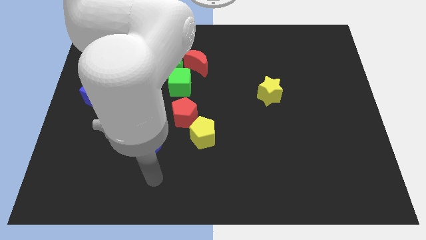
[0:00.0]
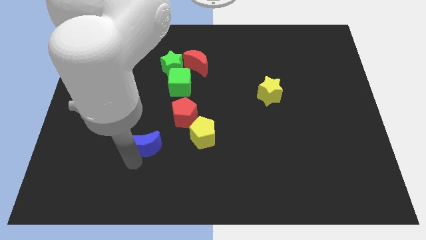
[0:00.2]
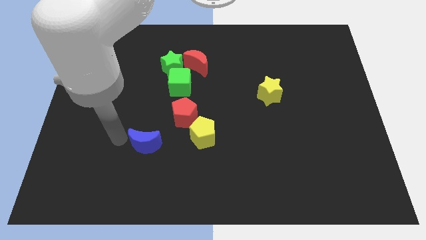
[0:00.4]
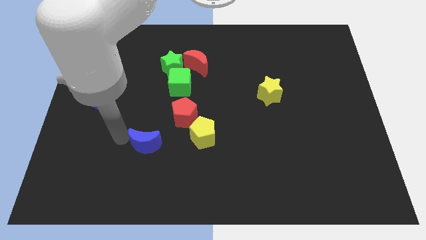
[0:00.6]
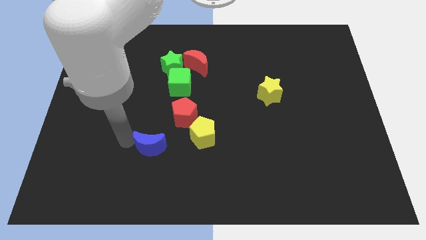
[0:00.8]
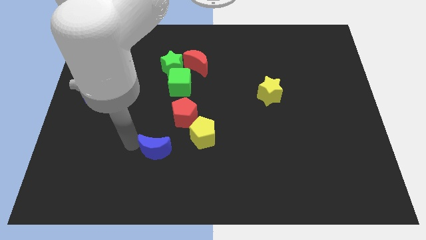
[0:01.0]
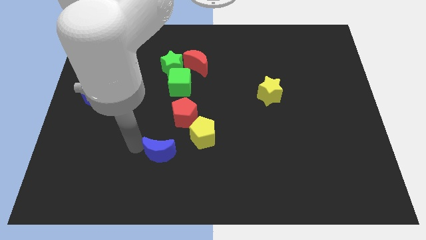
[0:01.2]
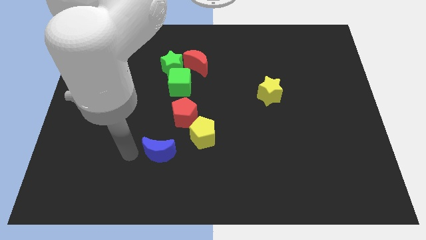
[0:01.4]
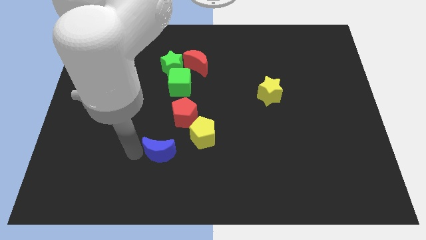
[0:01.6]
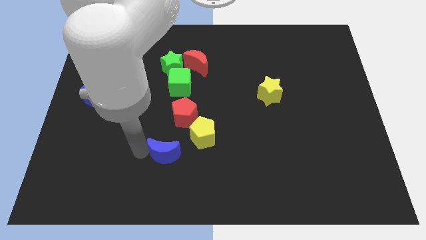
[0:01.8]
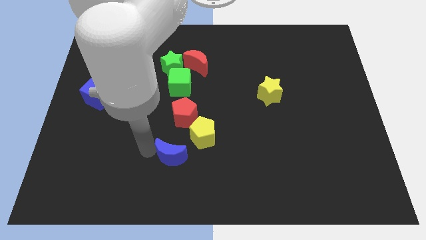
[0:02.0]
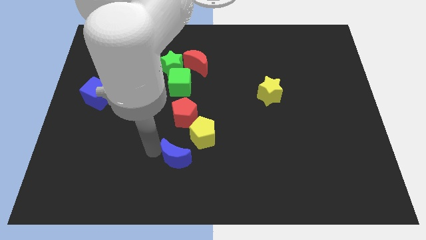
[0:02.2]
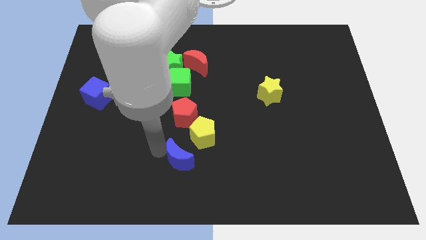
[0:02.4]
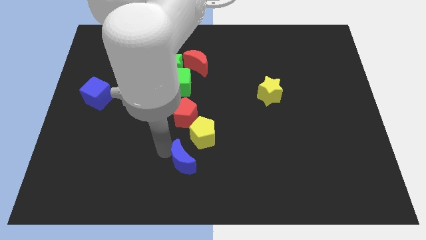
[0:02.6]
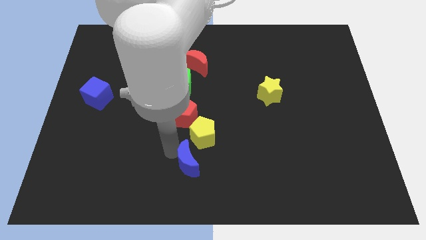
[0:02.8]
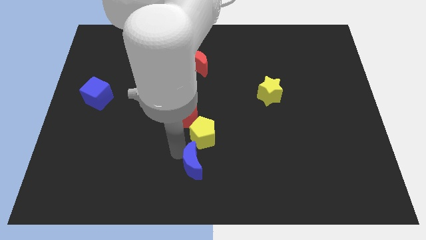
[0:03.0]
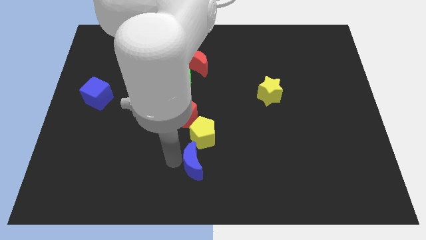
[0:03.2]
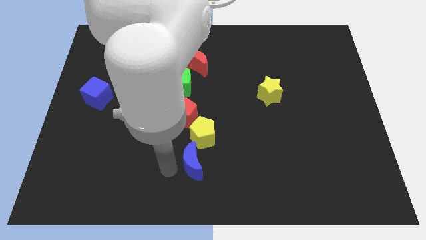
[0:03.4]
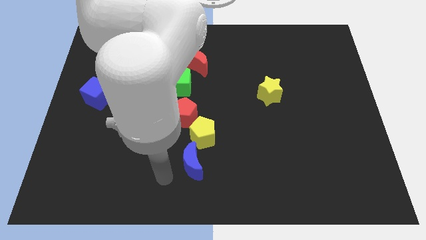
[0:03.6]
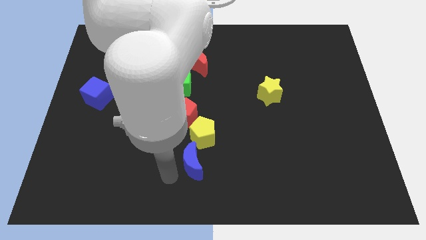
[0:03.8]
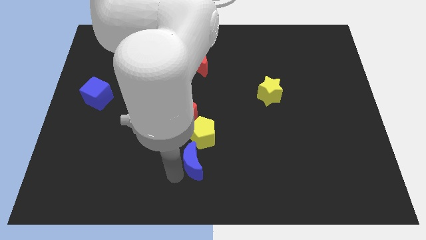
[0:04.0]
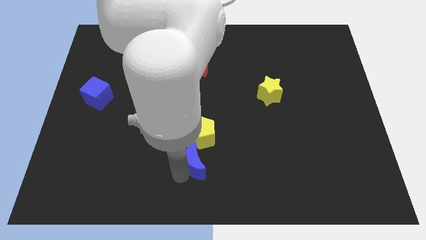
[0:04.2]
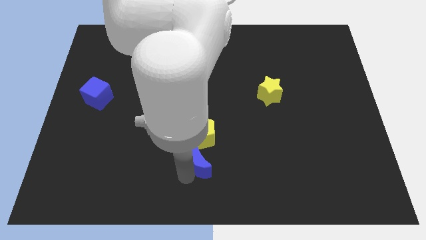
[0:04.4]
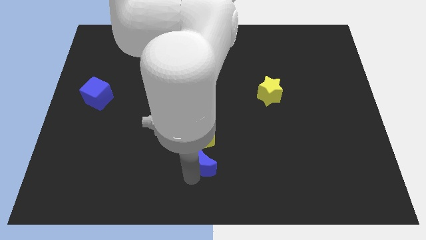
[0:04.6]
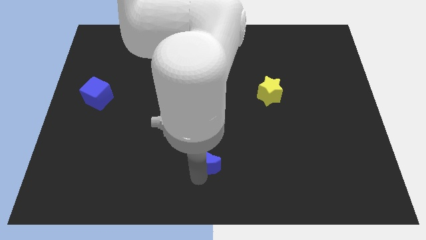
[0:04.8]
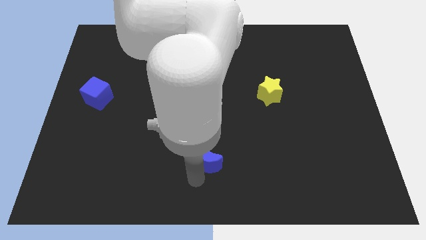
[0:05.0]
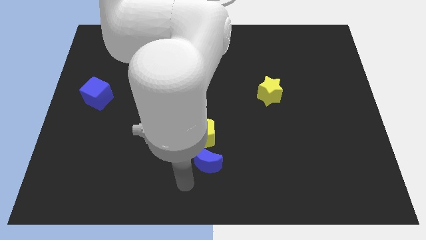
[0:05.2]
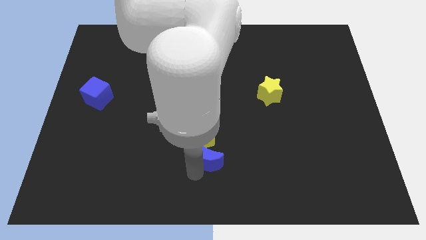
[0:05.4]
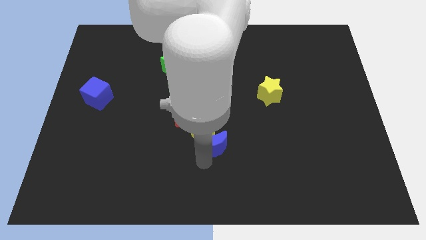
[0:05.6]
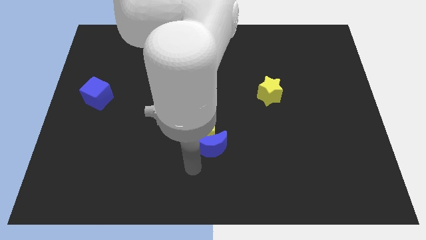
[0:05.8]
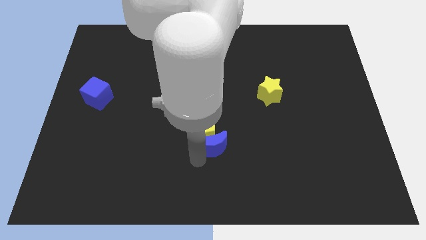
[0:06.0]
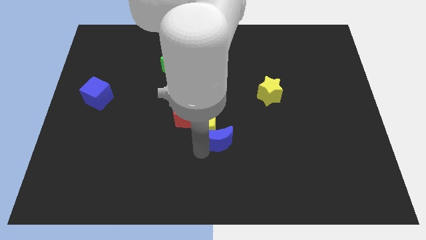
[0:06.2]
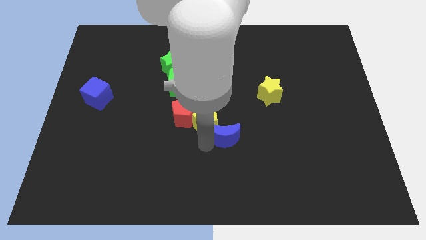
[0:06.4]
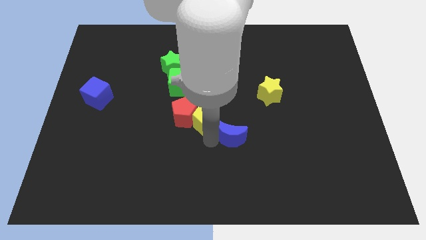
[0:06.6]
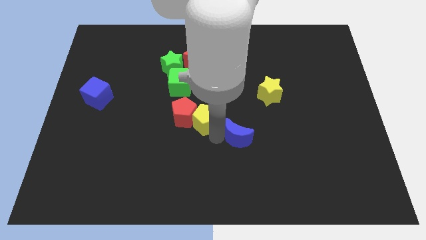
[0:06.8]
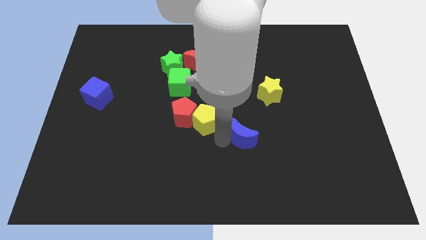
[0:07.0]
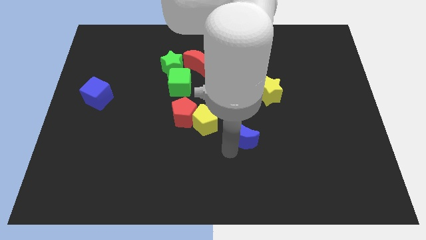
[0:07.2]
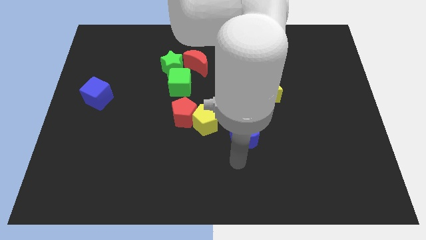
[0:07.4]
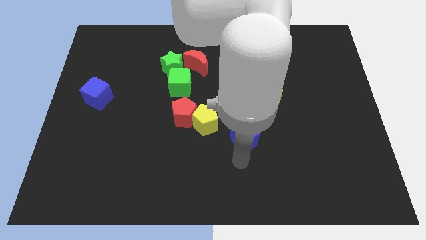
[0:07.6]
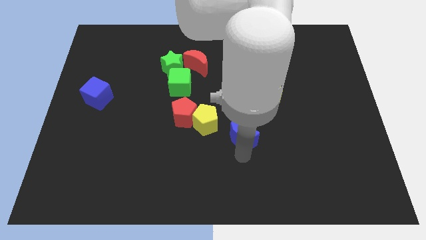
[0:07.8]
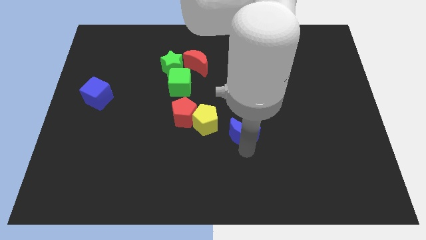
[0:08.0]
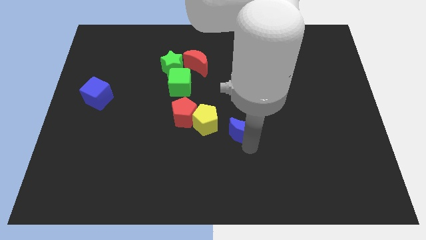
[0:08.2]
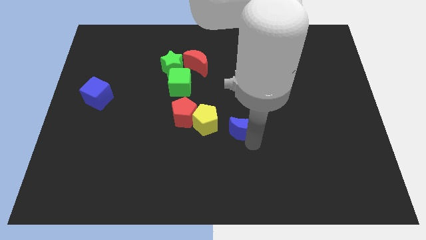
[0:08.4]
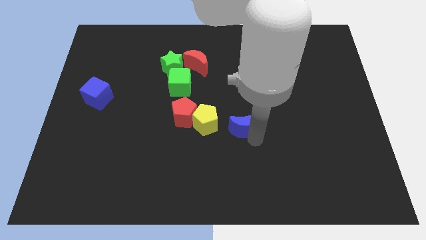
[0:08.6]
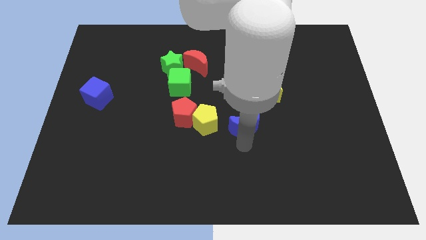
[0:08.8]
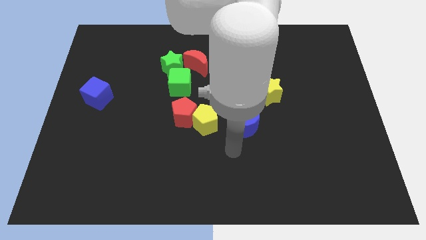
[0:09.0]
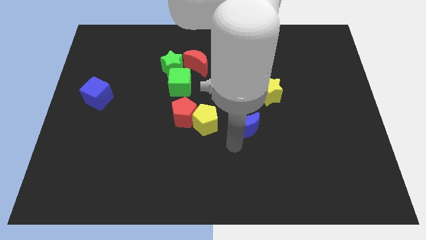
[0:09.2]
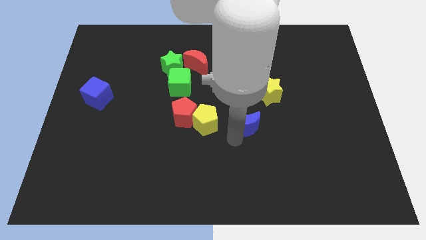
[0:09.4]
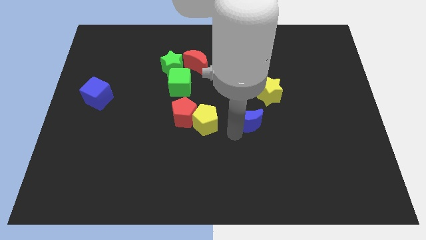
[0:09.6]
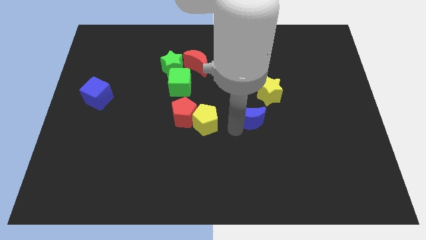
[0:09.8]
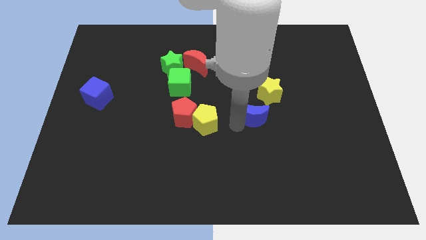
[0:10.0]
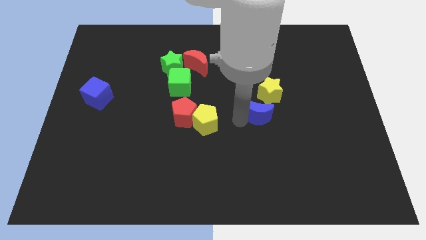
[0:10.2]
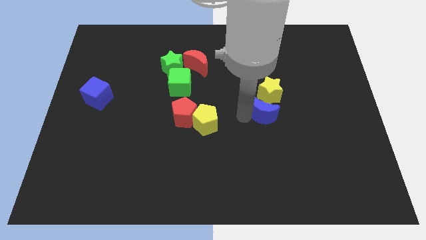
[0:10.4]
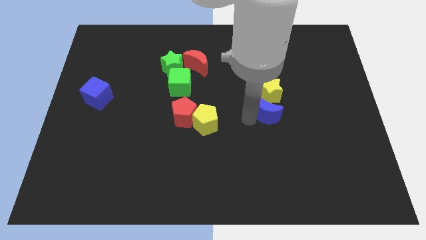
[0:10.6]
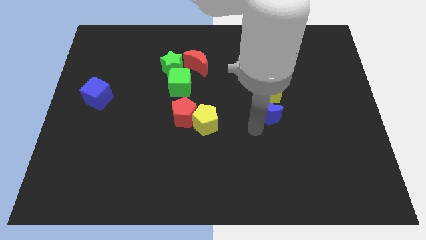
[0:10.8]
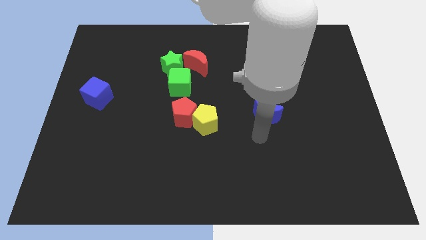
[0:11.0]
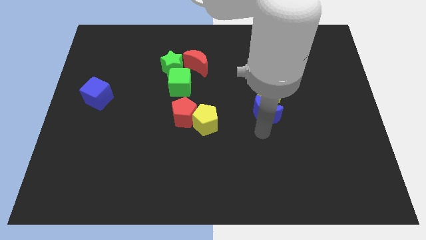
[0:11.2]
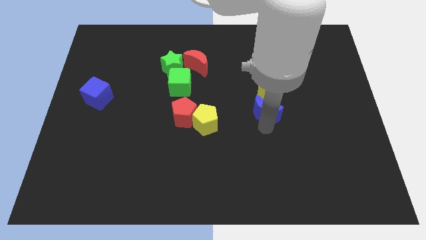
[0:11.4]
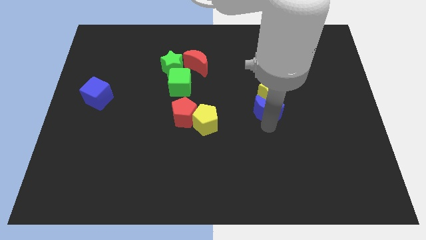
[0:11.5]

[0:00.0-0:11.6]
put the blue moon close to the yellow star

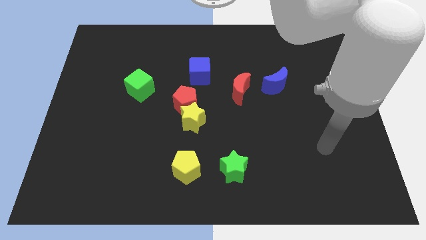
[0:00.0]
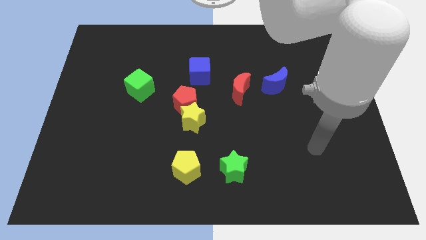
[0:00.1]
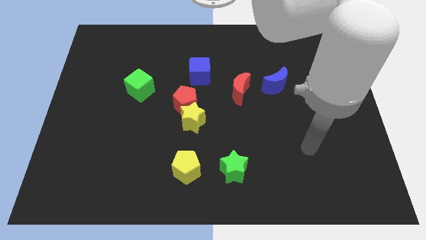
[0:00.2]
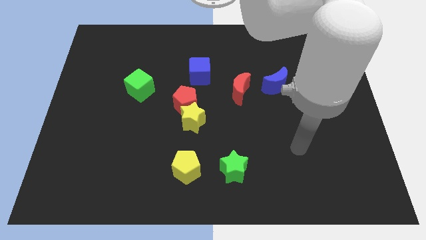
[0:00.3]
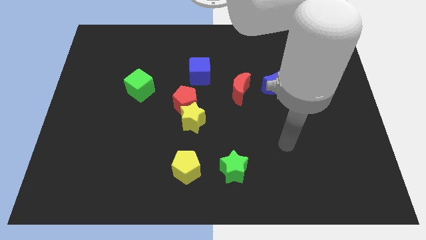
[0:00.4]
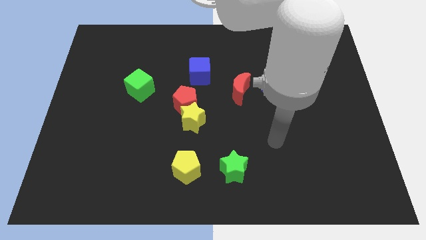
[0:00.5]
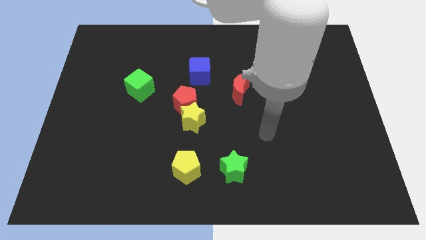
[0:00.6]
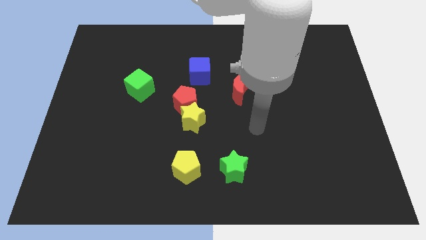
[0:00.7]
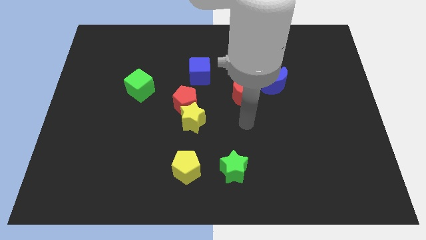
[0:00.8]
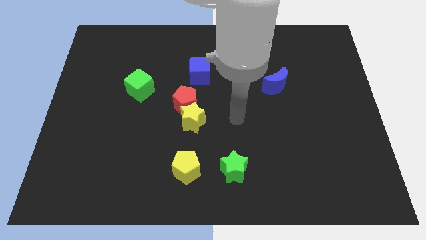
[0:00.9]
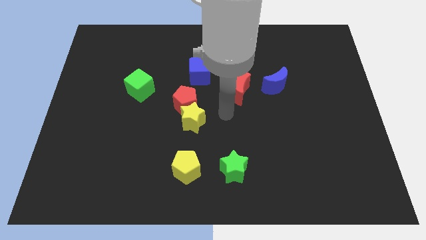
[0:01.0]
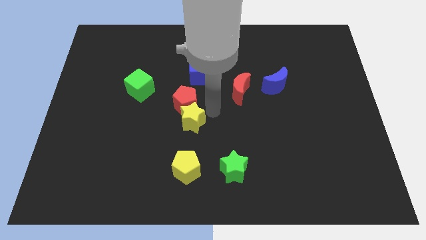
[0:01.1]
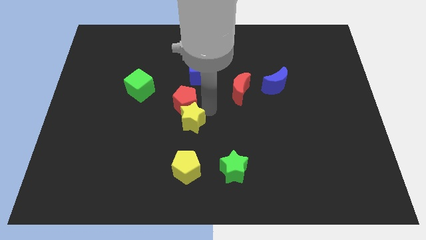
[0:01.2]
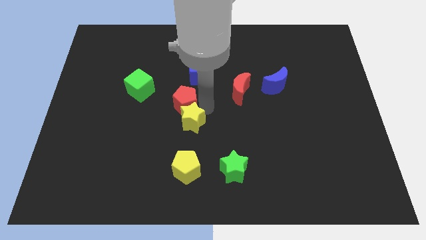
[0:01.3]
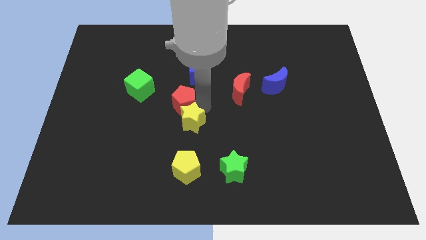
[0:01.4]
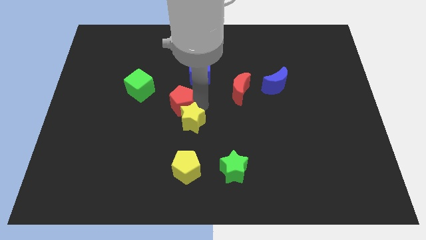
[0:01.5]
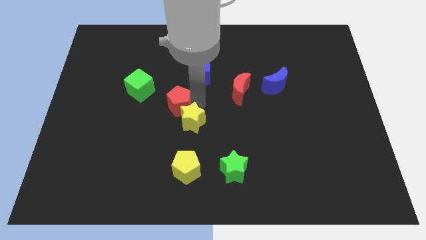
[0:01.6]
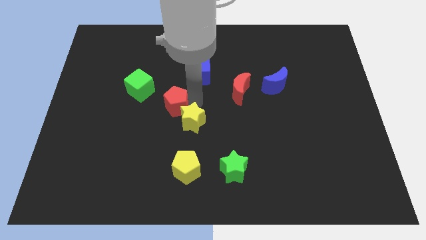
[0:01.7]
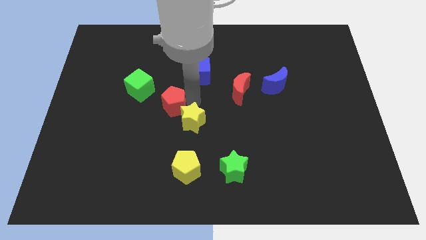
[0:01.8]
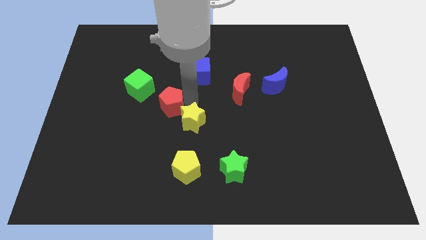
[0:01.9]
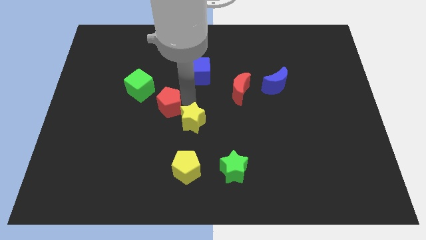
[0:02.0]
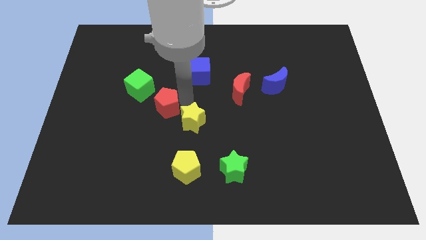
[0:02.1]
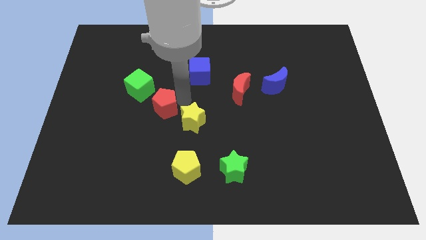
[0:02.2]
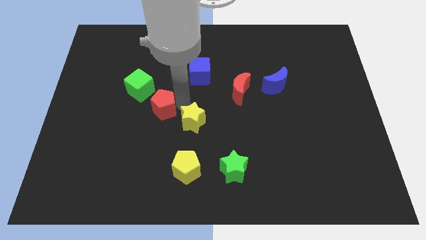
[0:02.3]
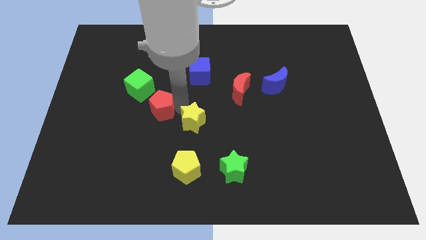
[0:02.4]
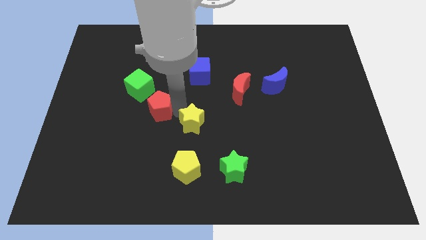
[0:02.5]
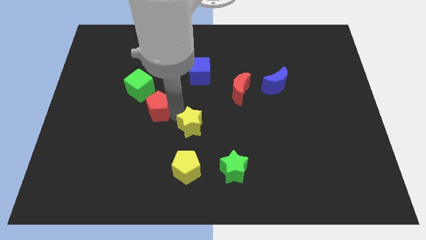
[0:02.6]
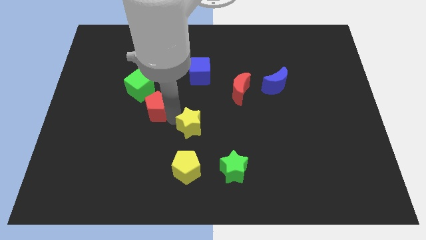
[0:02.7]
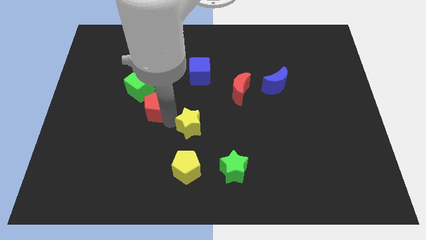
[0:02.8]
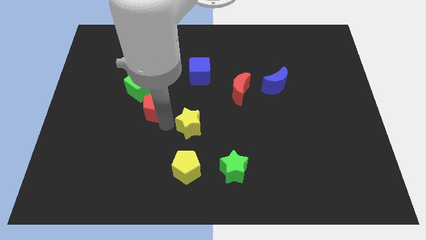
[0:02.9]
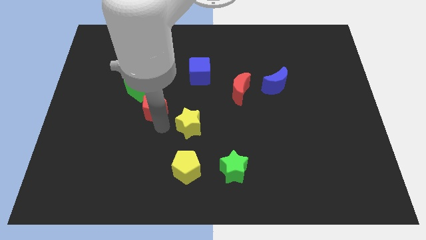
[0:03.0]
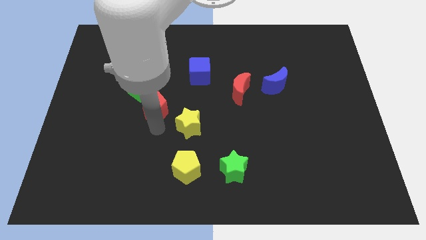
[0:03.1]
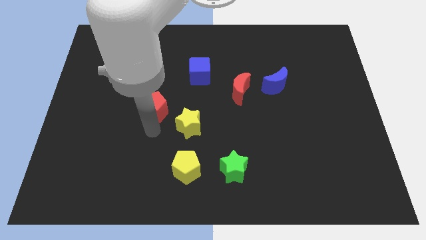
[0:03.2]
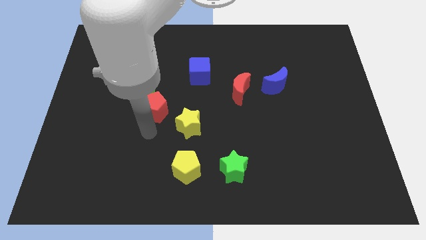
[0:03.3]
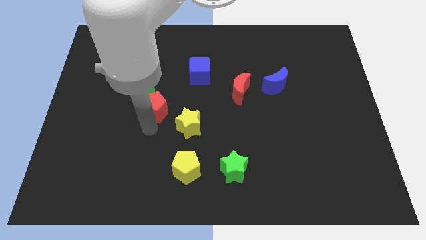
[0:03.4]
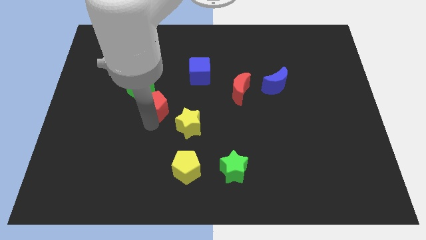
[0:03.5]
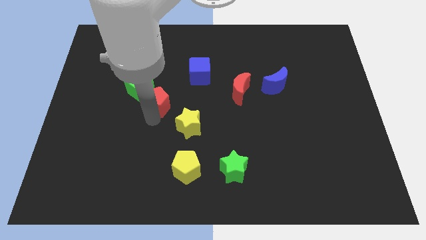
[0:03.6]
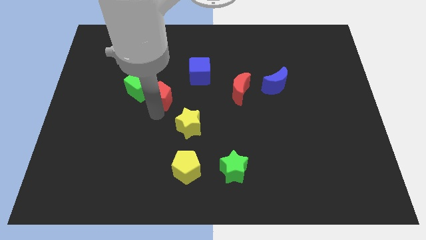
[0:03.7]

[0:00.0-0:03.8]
put the red pentagon towards the green cube
